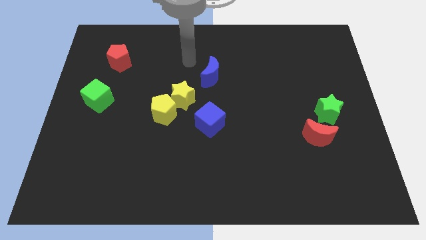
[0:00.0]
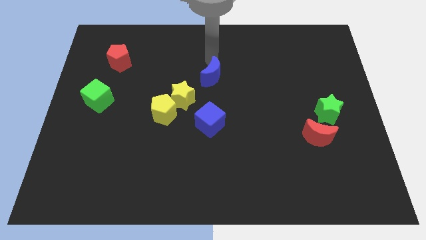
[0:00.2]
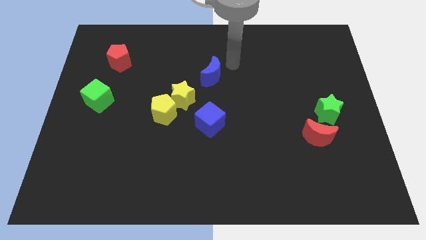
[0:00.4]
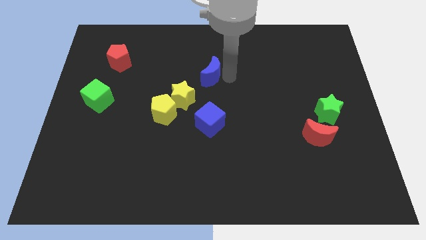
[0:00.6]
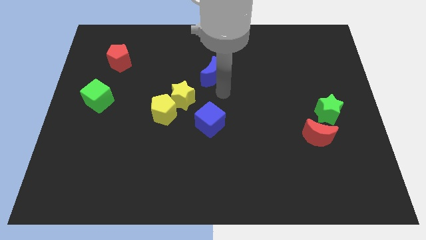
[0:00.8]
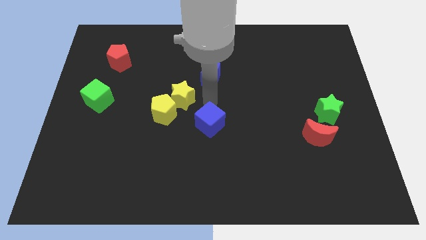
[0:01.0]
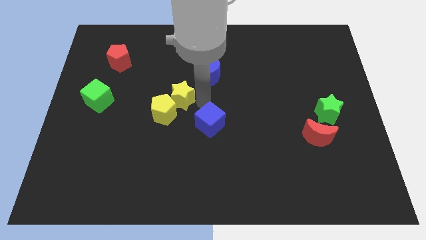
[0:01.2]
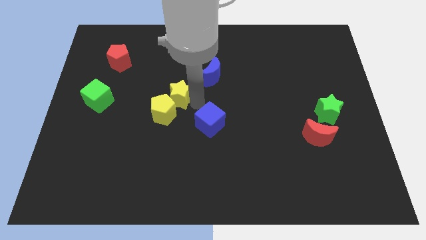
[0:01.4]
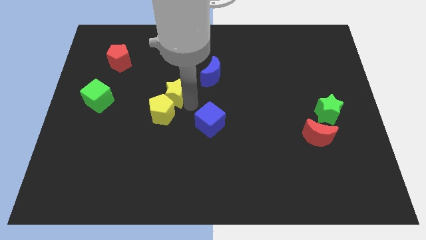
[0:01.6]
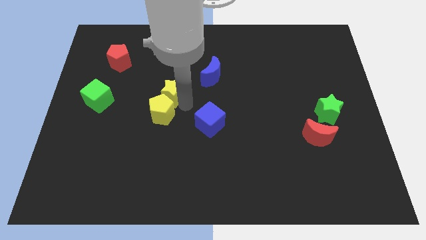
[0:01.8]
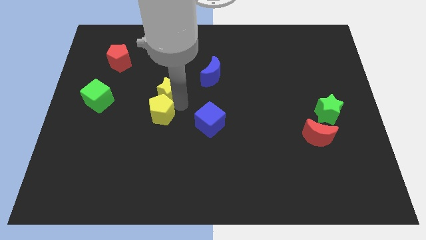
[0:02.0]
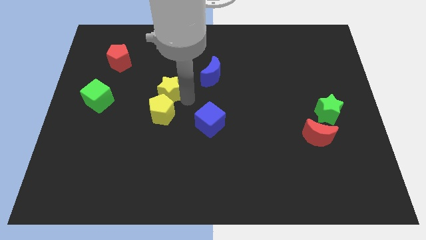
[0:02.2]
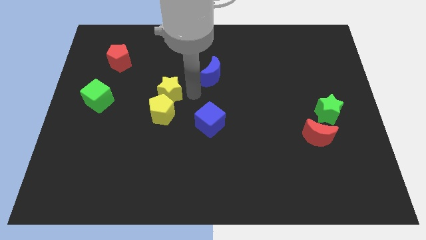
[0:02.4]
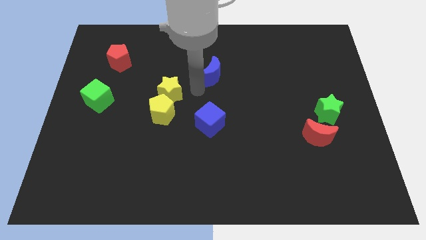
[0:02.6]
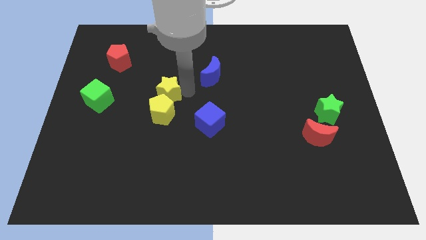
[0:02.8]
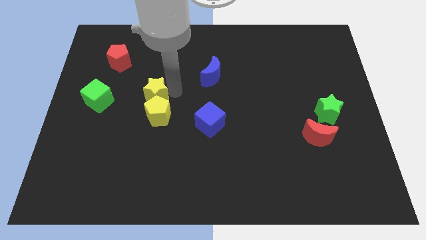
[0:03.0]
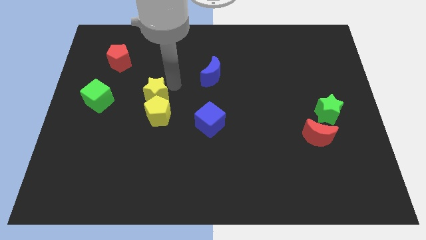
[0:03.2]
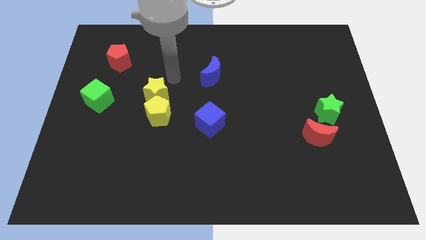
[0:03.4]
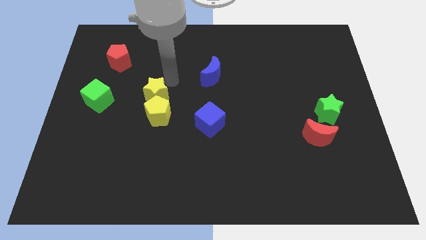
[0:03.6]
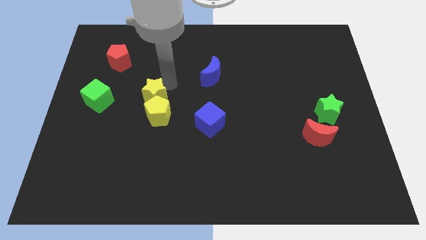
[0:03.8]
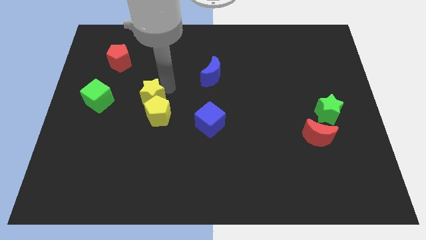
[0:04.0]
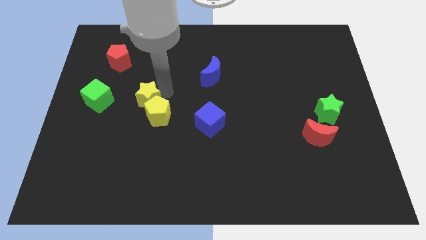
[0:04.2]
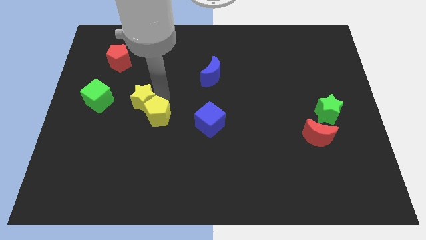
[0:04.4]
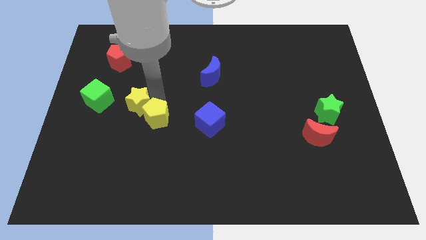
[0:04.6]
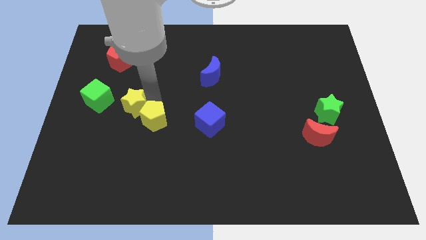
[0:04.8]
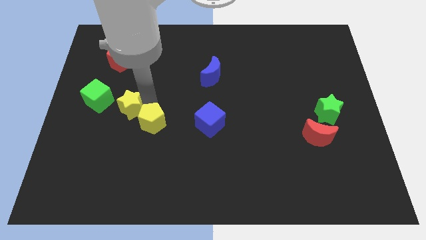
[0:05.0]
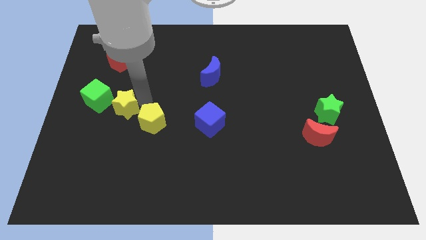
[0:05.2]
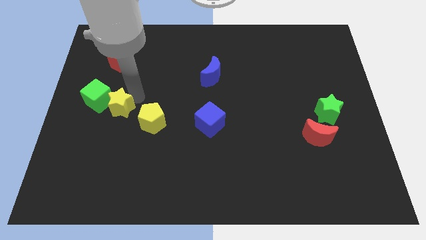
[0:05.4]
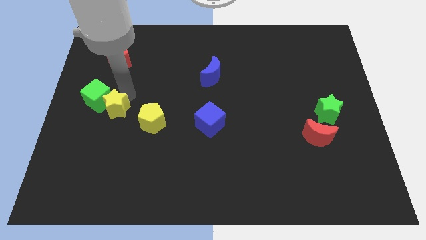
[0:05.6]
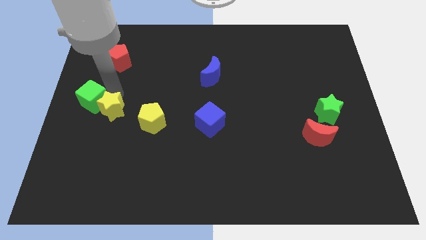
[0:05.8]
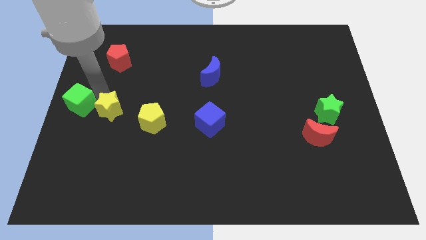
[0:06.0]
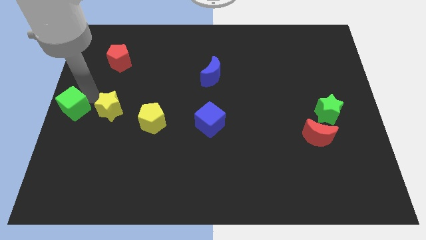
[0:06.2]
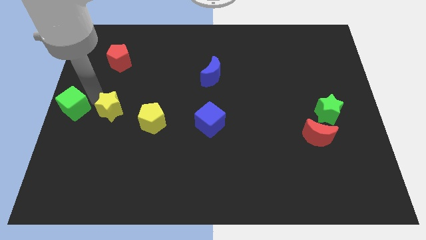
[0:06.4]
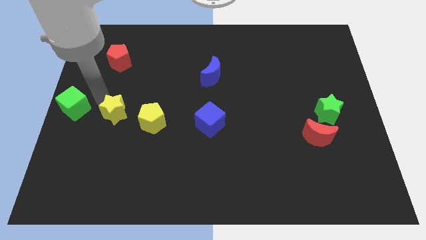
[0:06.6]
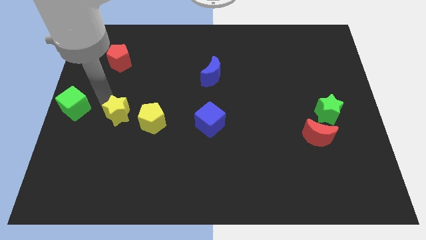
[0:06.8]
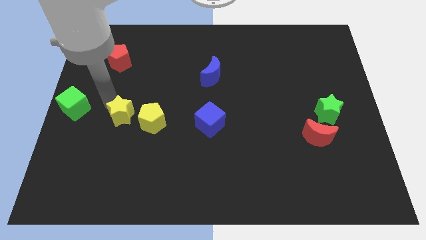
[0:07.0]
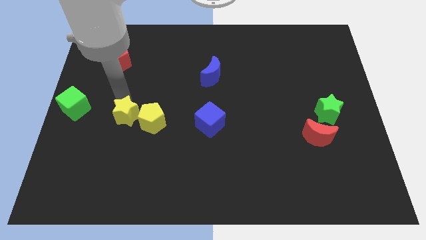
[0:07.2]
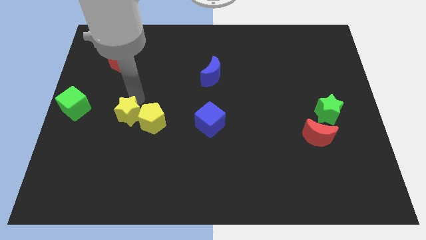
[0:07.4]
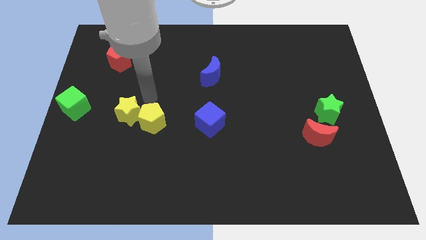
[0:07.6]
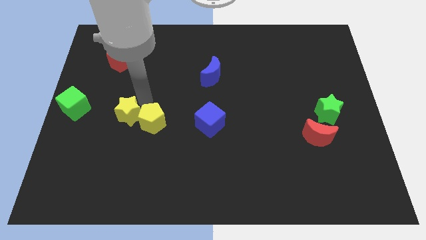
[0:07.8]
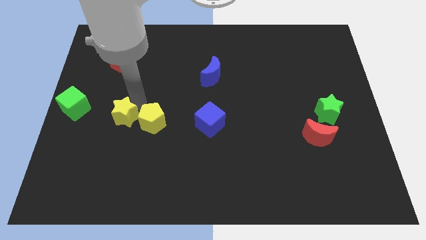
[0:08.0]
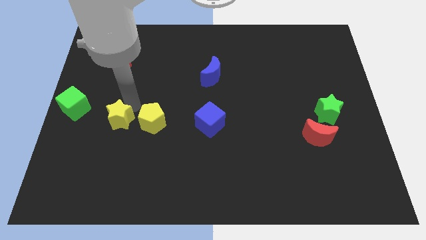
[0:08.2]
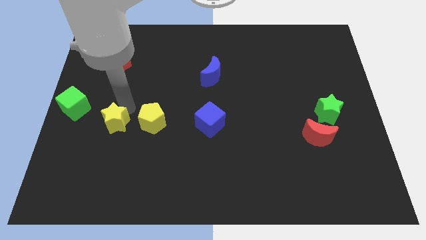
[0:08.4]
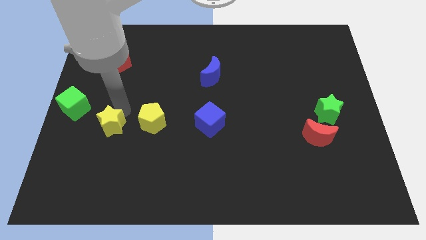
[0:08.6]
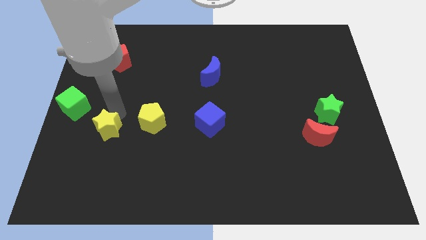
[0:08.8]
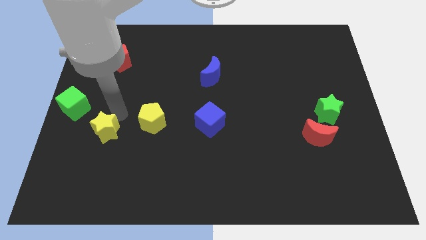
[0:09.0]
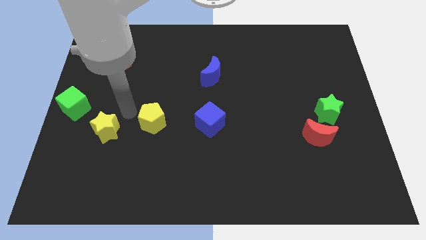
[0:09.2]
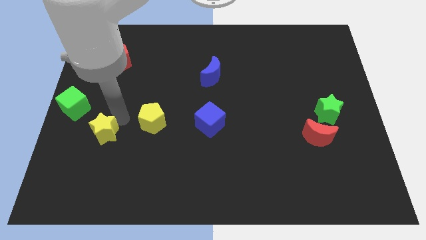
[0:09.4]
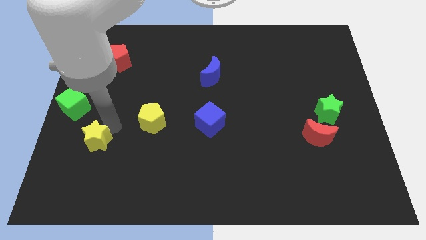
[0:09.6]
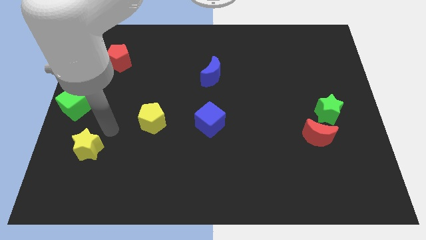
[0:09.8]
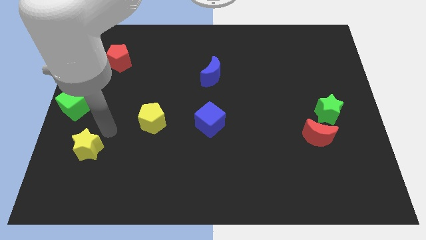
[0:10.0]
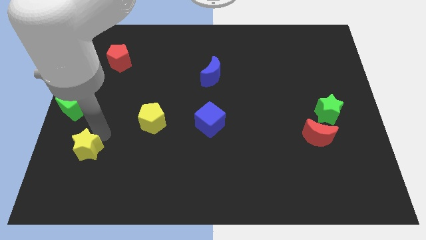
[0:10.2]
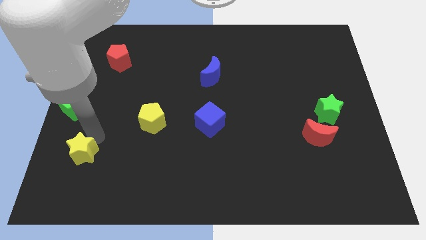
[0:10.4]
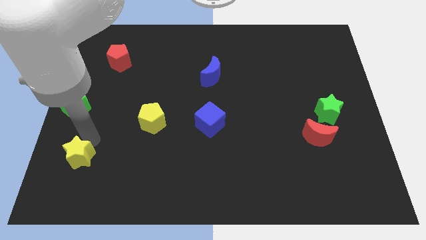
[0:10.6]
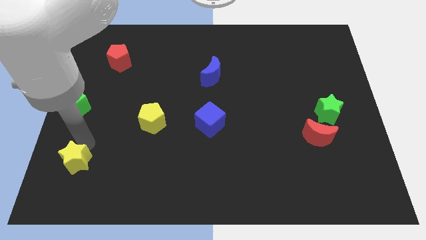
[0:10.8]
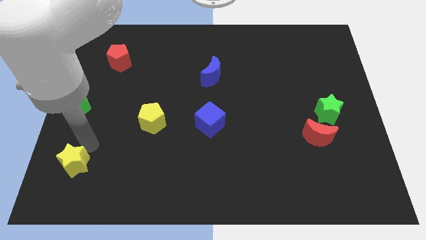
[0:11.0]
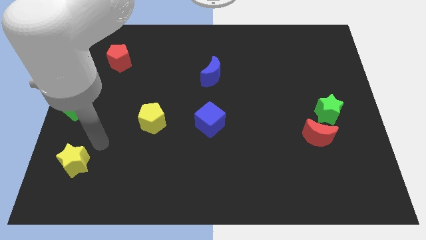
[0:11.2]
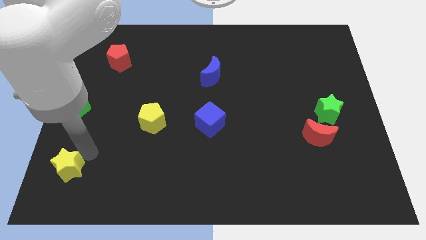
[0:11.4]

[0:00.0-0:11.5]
put the yellow star to the bottom left of the board
